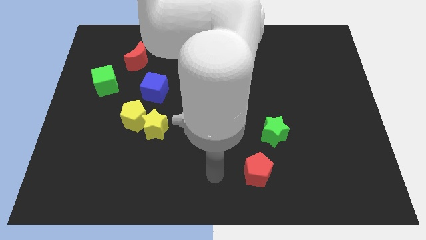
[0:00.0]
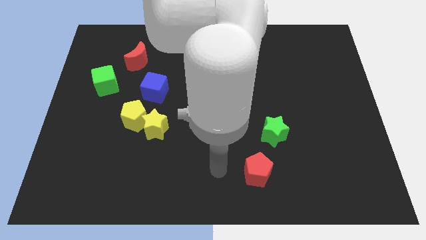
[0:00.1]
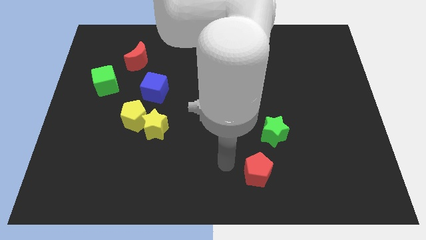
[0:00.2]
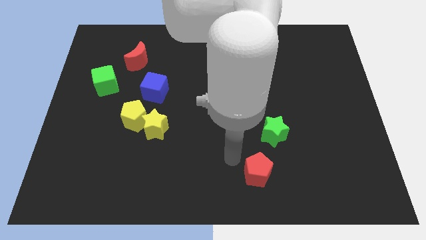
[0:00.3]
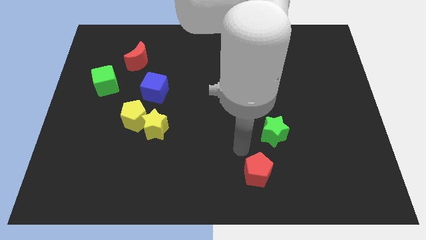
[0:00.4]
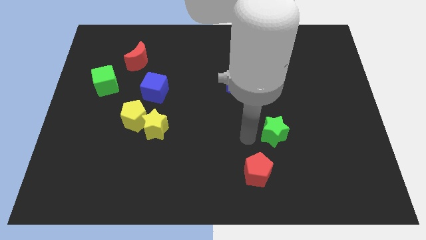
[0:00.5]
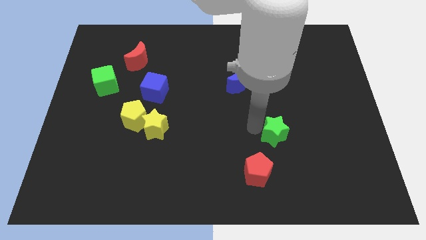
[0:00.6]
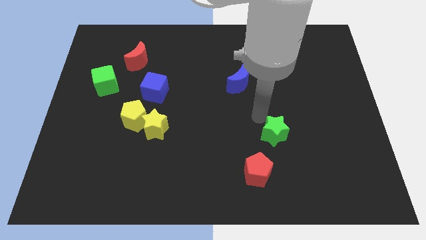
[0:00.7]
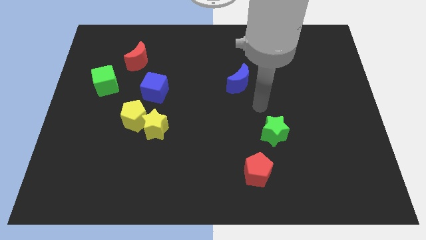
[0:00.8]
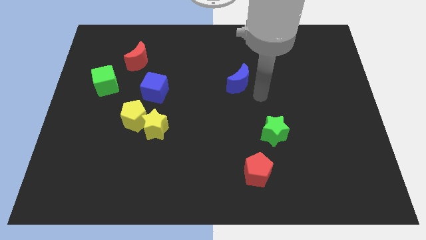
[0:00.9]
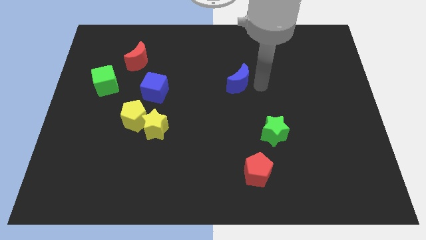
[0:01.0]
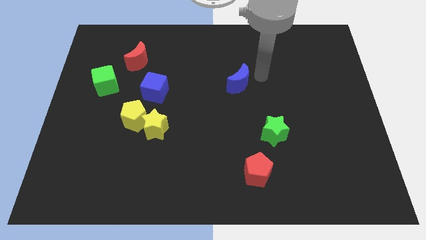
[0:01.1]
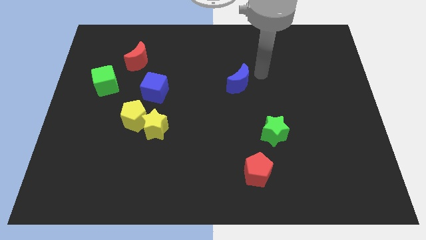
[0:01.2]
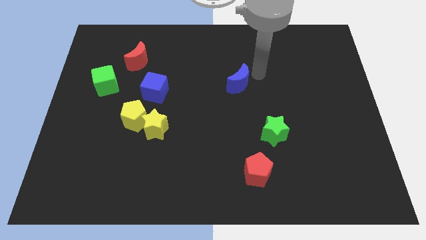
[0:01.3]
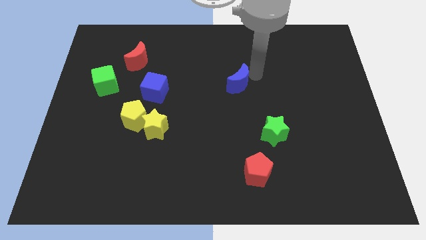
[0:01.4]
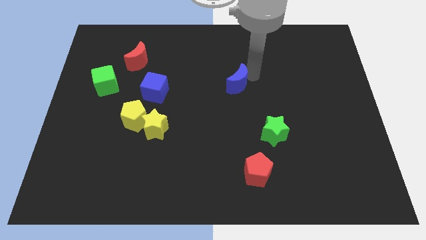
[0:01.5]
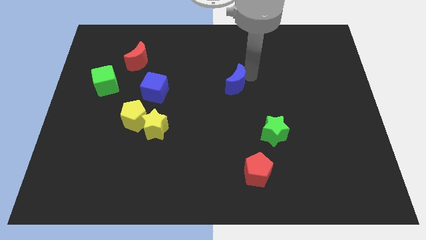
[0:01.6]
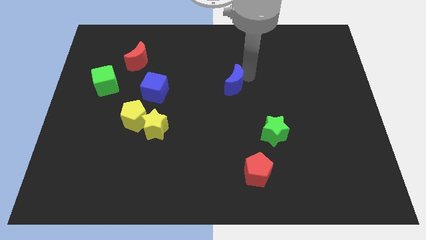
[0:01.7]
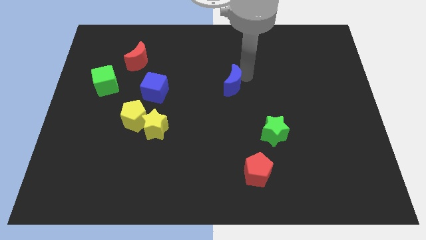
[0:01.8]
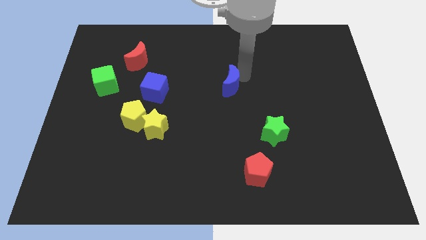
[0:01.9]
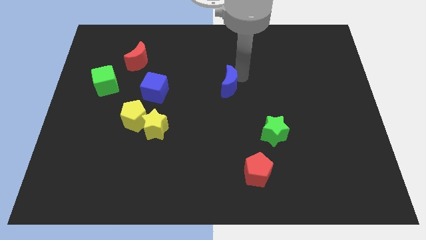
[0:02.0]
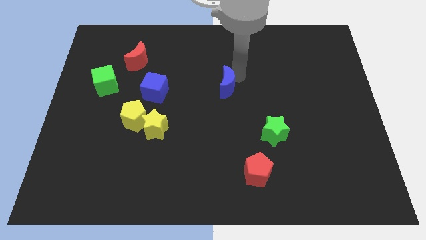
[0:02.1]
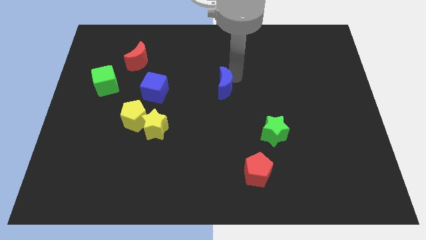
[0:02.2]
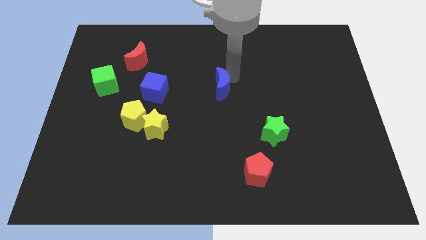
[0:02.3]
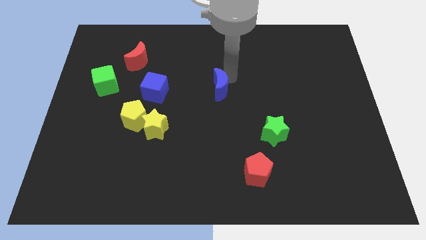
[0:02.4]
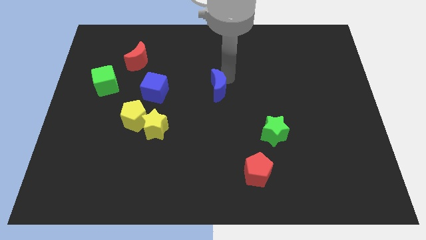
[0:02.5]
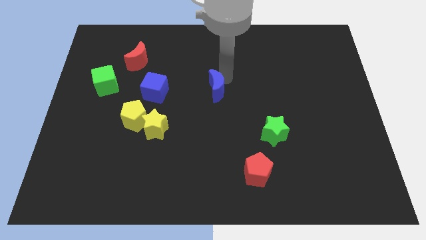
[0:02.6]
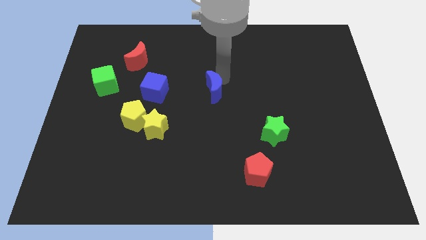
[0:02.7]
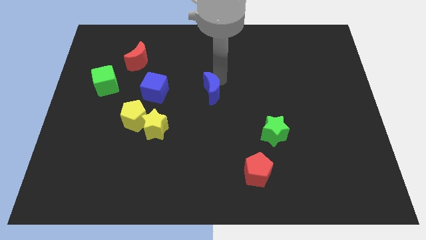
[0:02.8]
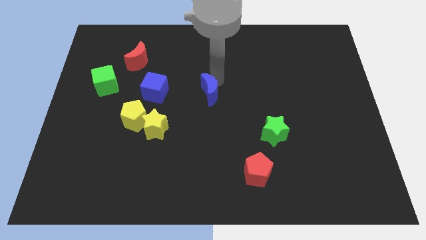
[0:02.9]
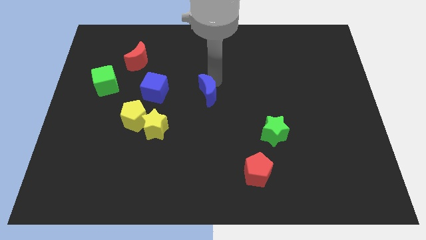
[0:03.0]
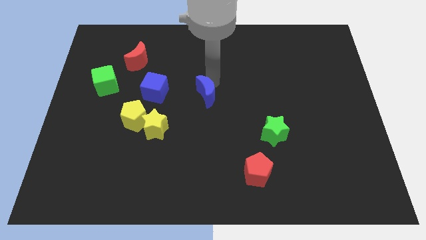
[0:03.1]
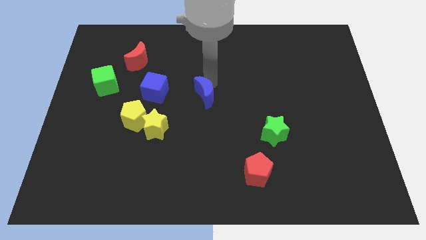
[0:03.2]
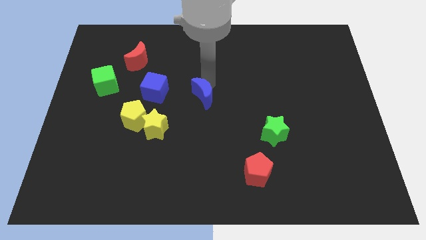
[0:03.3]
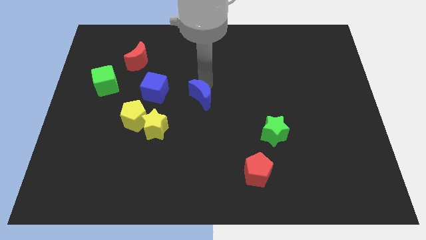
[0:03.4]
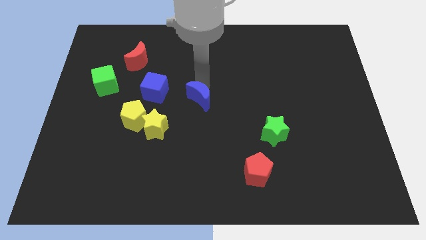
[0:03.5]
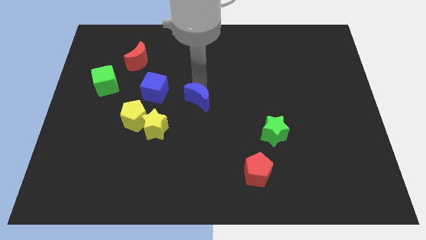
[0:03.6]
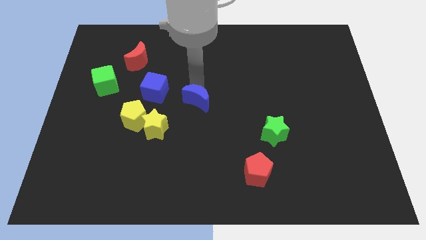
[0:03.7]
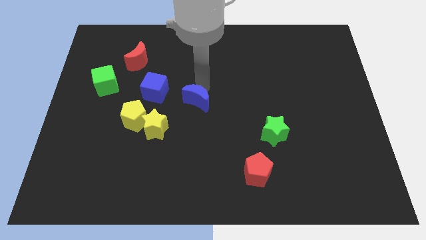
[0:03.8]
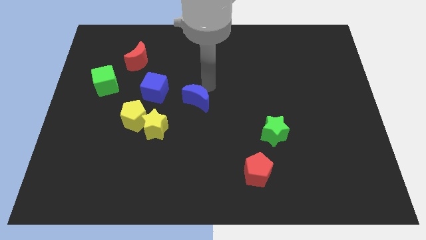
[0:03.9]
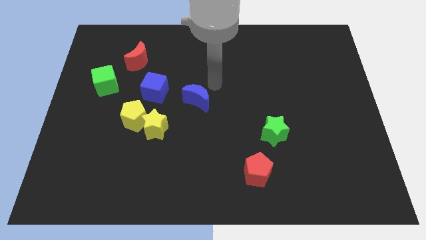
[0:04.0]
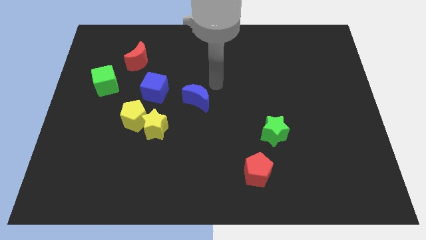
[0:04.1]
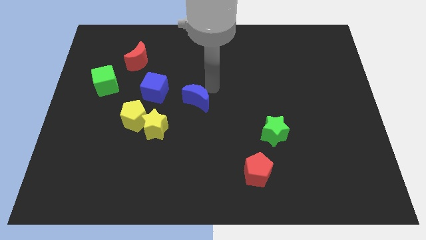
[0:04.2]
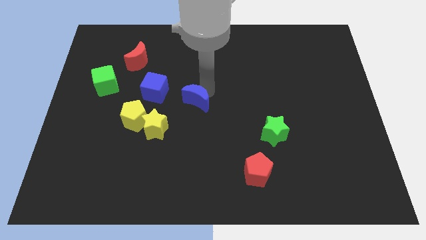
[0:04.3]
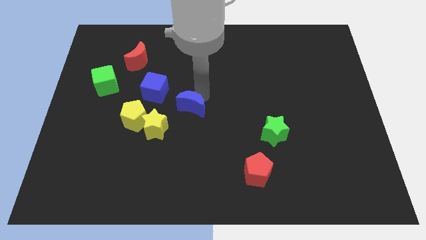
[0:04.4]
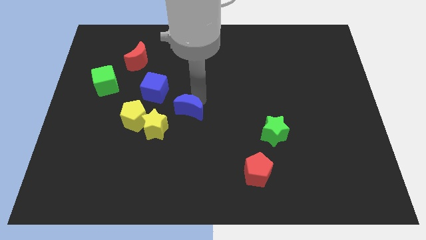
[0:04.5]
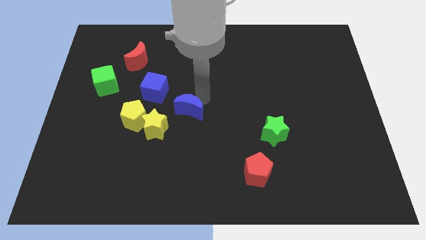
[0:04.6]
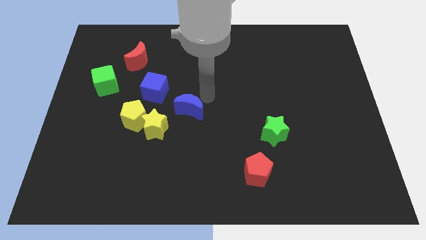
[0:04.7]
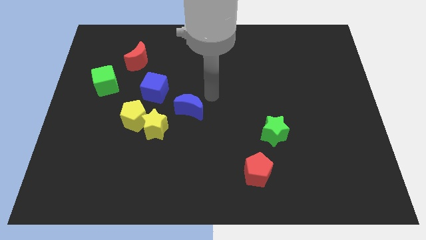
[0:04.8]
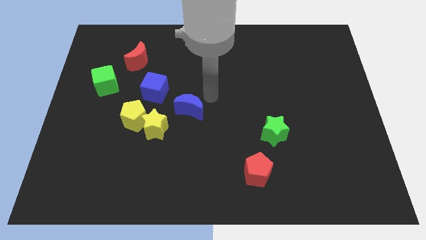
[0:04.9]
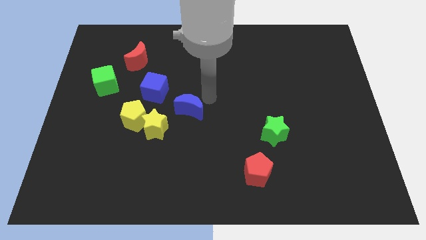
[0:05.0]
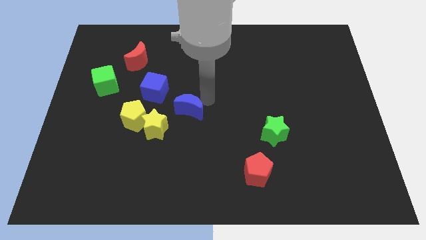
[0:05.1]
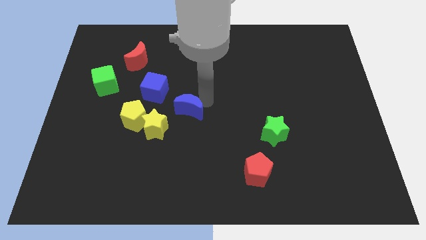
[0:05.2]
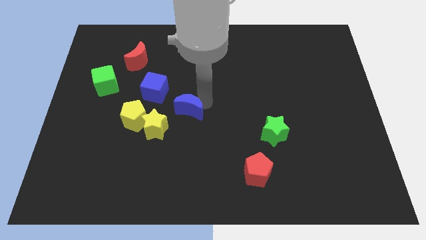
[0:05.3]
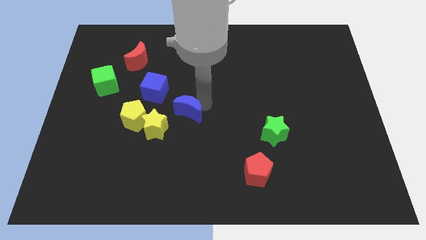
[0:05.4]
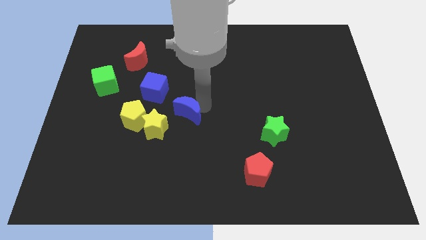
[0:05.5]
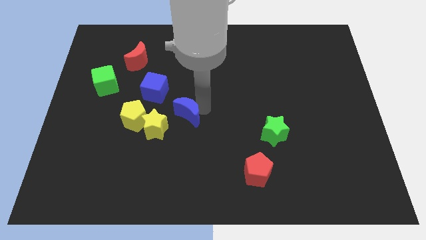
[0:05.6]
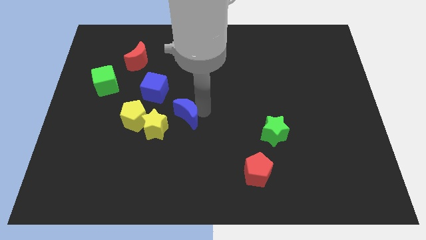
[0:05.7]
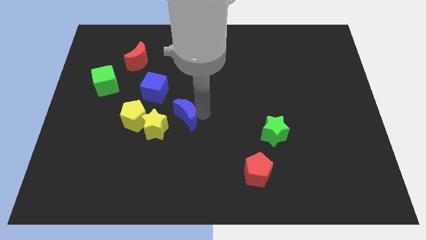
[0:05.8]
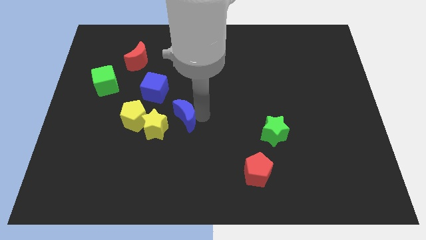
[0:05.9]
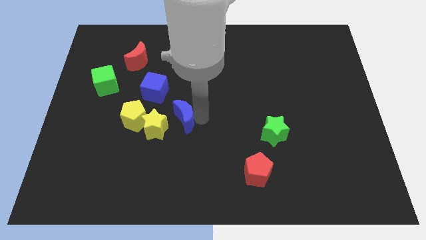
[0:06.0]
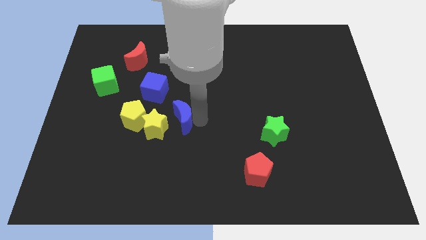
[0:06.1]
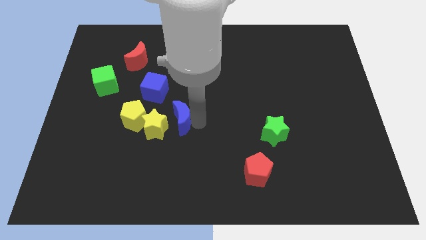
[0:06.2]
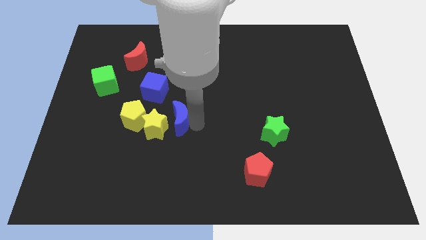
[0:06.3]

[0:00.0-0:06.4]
move the blue moon close to the yellow star

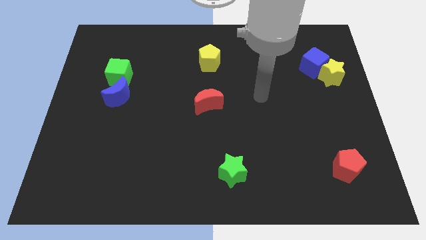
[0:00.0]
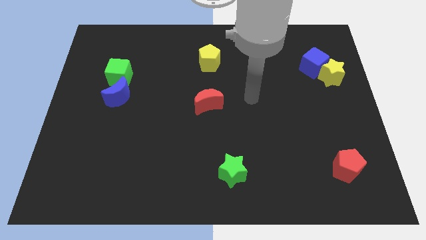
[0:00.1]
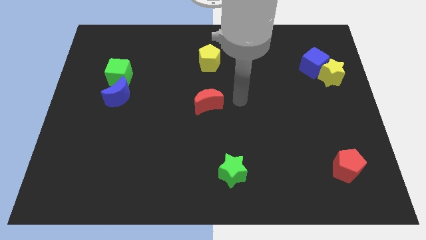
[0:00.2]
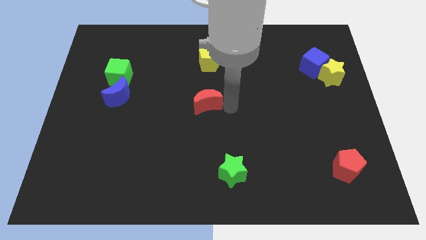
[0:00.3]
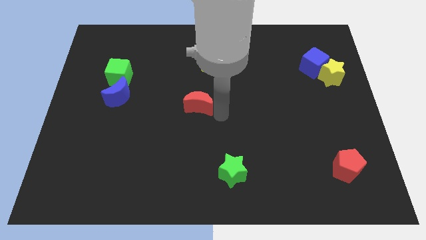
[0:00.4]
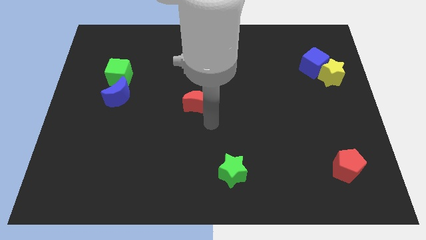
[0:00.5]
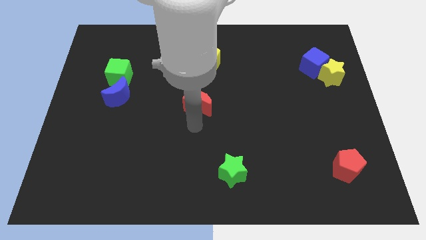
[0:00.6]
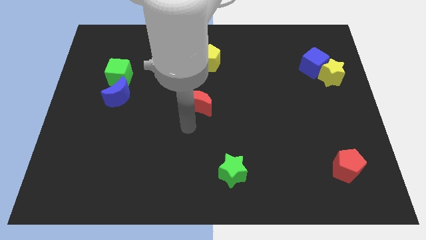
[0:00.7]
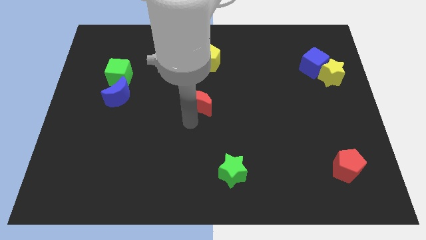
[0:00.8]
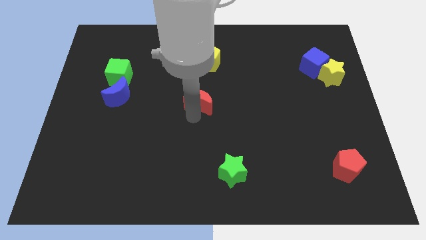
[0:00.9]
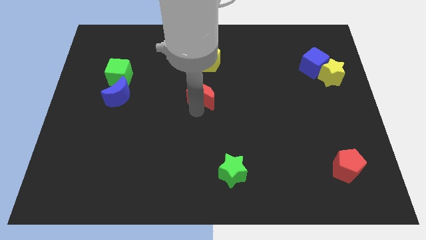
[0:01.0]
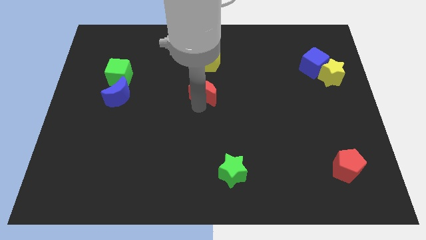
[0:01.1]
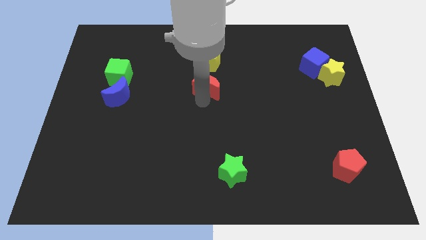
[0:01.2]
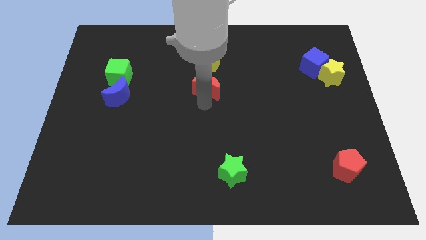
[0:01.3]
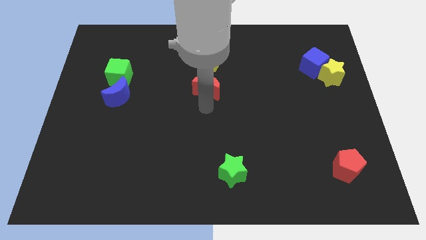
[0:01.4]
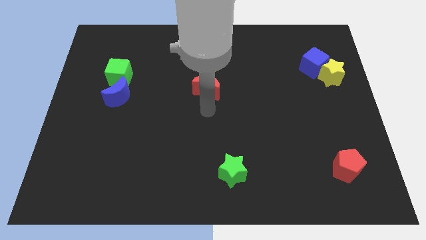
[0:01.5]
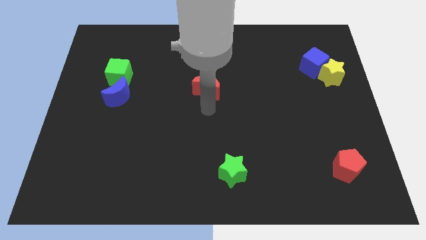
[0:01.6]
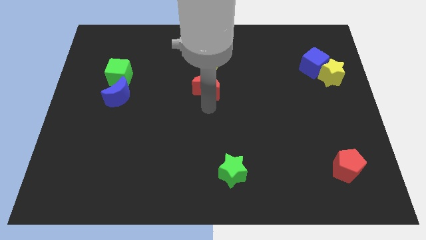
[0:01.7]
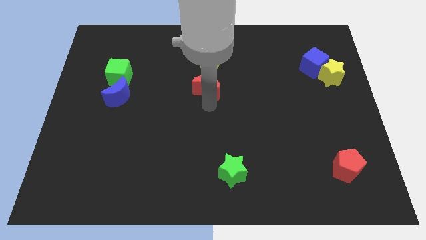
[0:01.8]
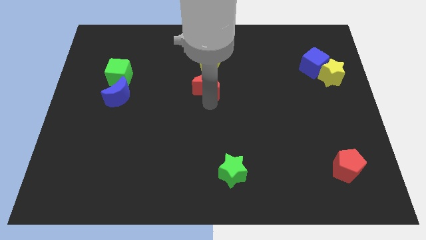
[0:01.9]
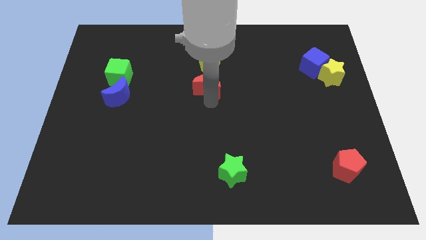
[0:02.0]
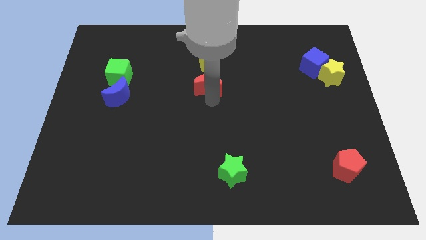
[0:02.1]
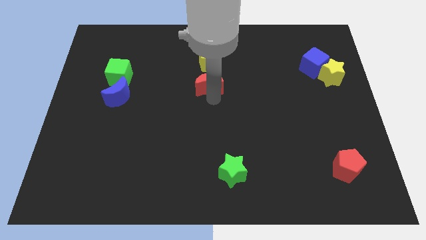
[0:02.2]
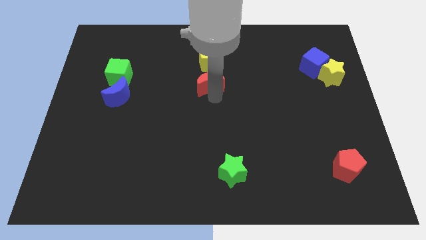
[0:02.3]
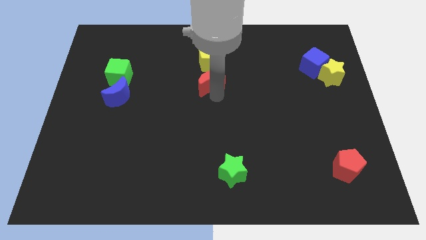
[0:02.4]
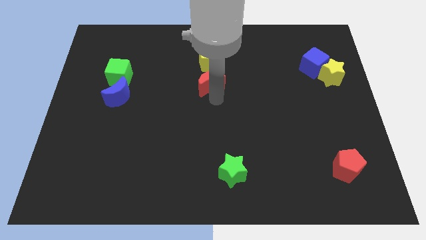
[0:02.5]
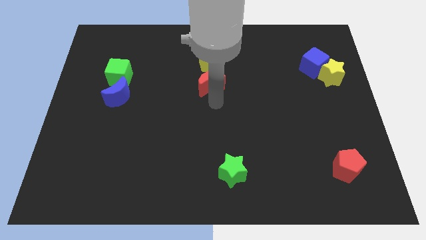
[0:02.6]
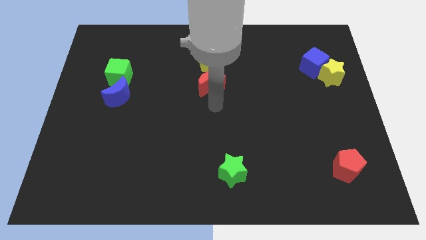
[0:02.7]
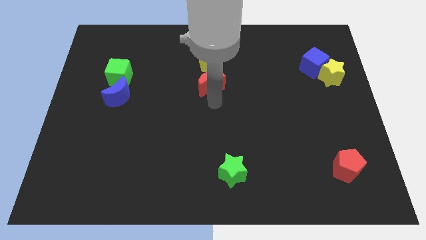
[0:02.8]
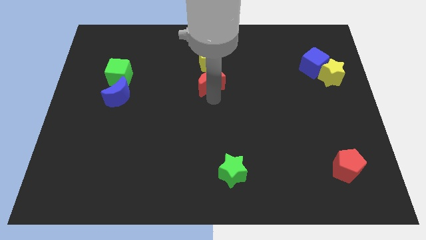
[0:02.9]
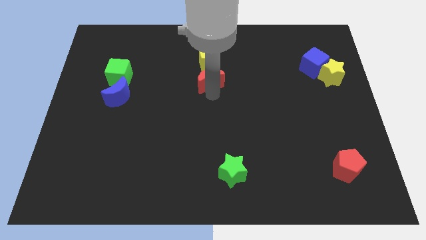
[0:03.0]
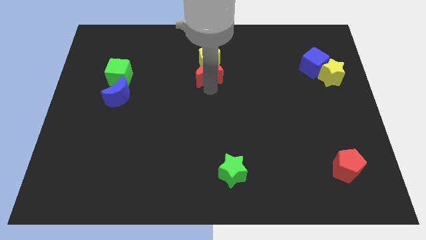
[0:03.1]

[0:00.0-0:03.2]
put the red moon to the yellow pentagon
